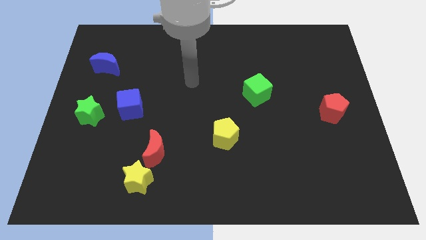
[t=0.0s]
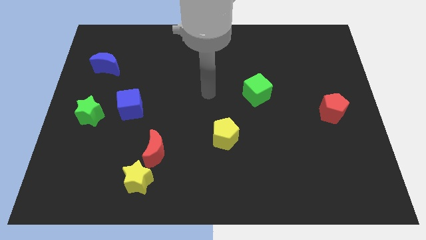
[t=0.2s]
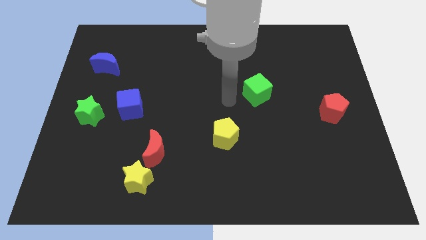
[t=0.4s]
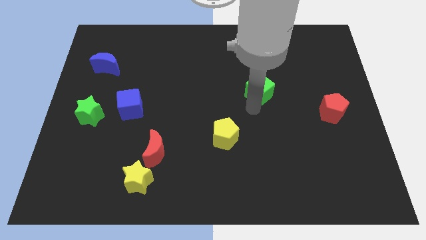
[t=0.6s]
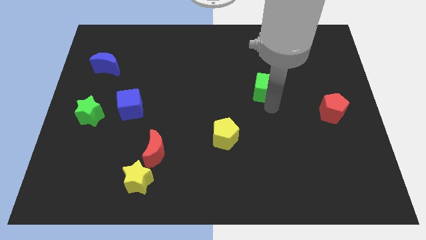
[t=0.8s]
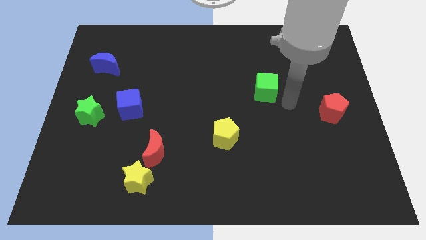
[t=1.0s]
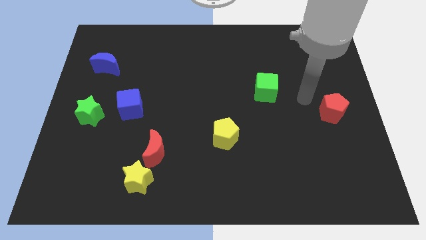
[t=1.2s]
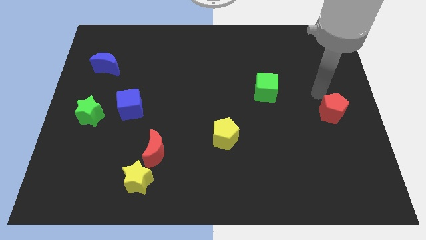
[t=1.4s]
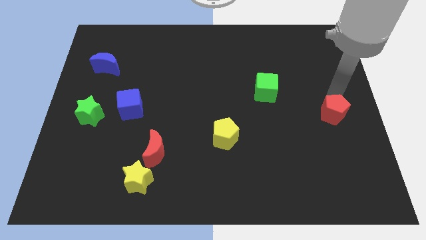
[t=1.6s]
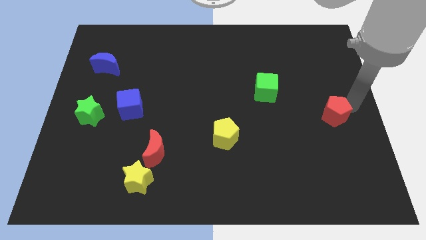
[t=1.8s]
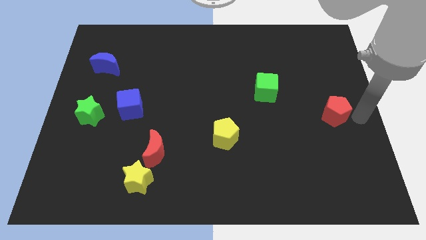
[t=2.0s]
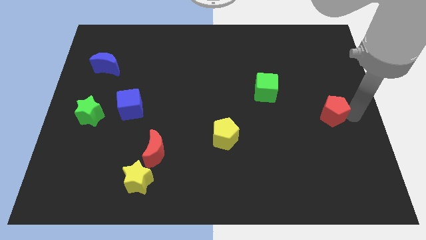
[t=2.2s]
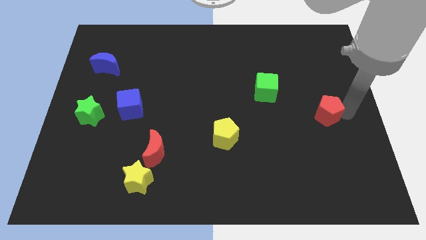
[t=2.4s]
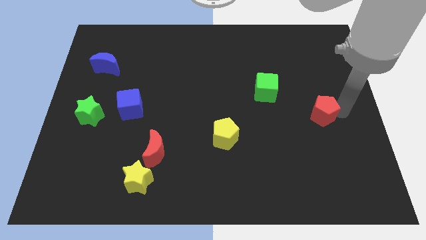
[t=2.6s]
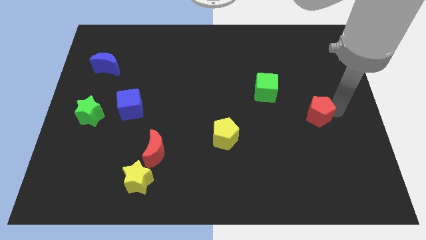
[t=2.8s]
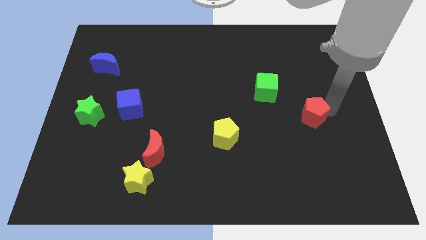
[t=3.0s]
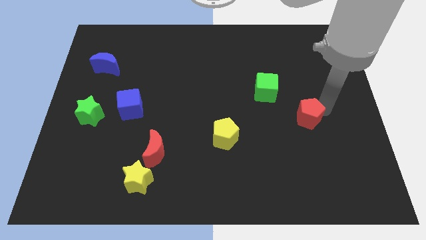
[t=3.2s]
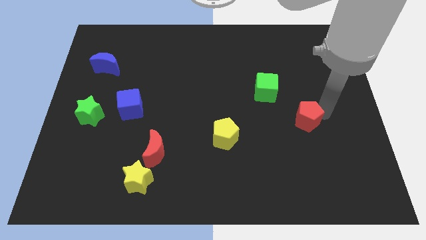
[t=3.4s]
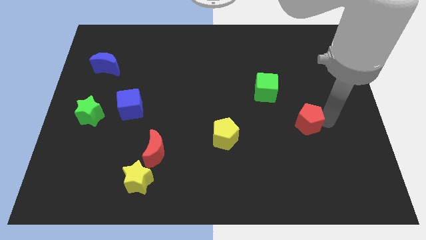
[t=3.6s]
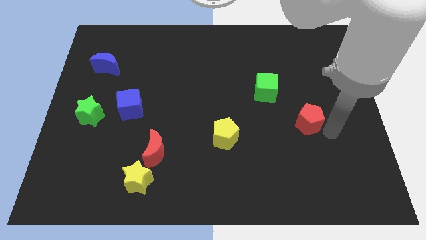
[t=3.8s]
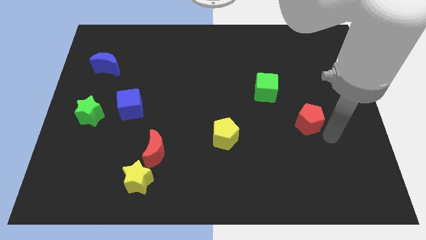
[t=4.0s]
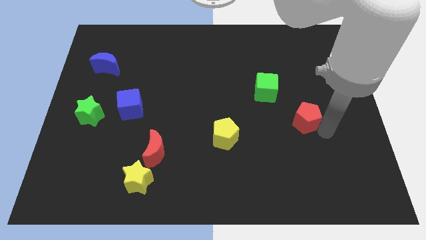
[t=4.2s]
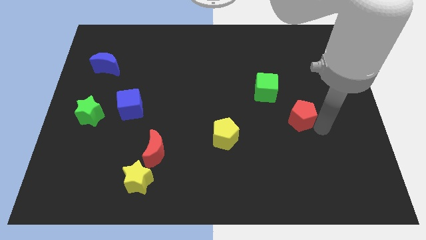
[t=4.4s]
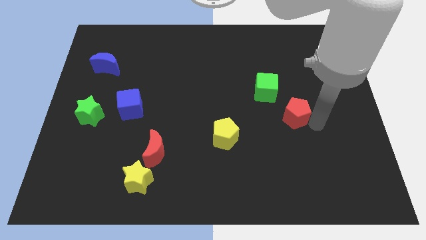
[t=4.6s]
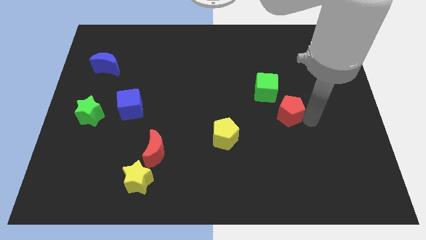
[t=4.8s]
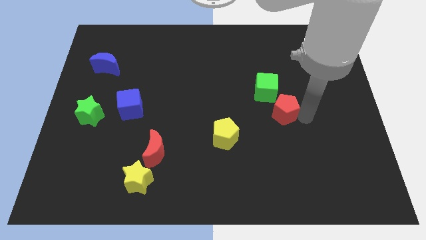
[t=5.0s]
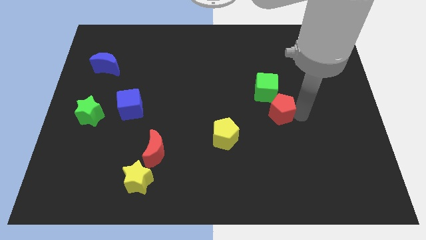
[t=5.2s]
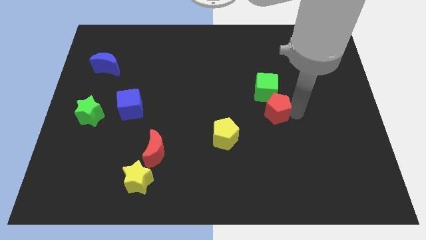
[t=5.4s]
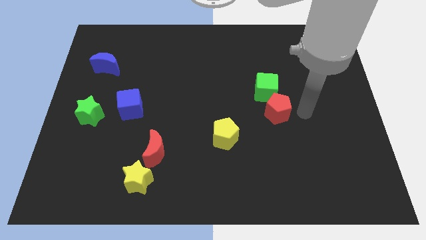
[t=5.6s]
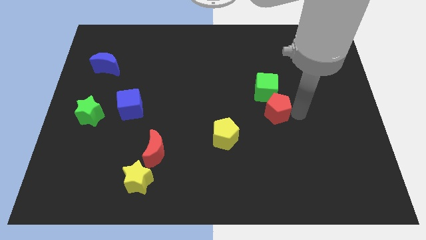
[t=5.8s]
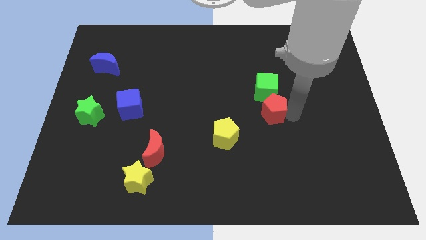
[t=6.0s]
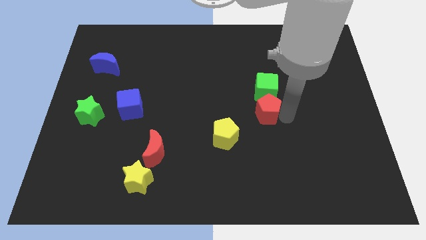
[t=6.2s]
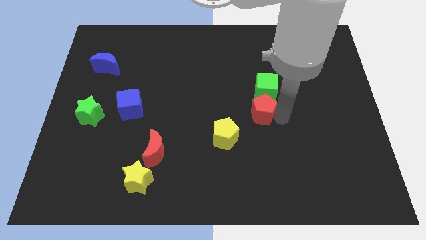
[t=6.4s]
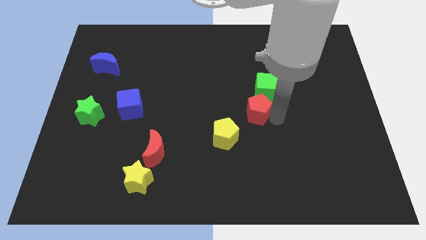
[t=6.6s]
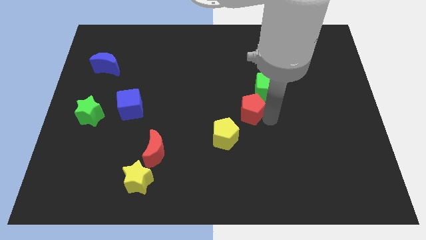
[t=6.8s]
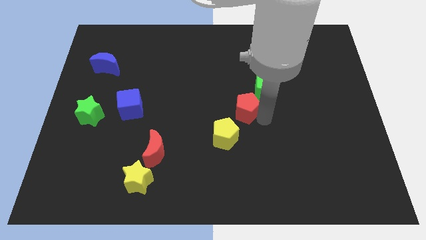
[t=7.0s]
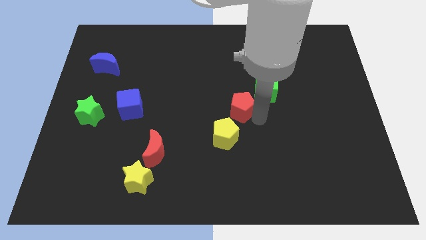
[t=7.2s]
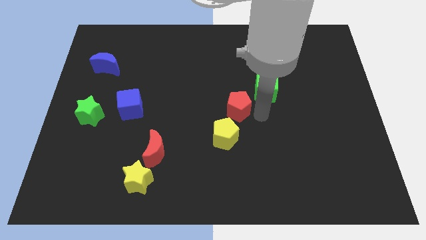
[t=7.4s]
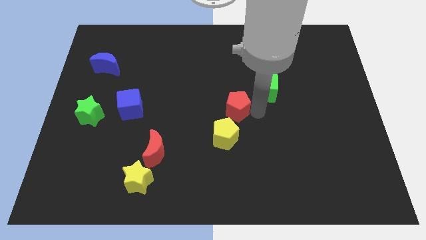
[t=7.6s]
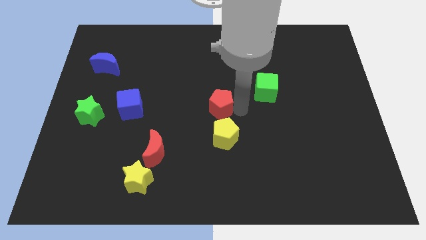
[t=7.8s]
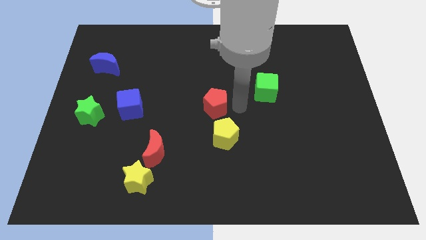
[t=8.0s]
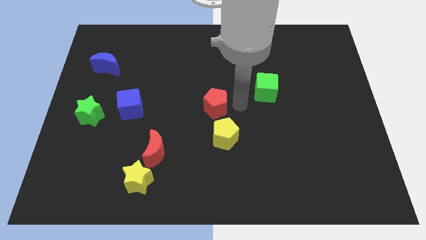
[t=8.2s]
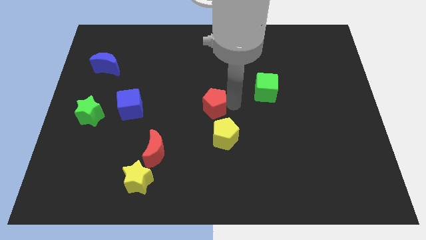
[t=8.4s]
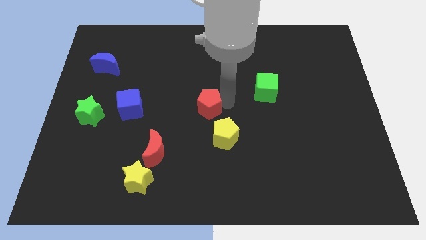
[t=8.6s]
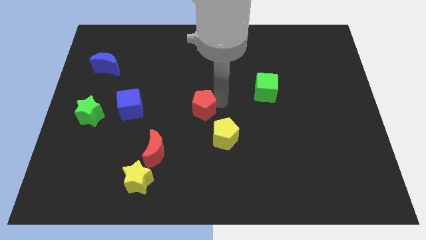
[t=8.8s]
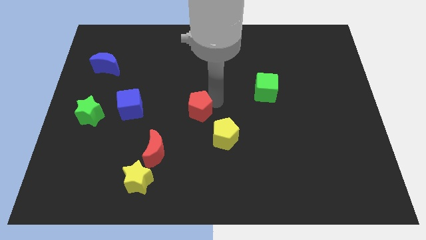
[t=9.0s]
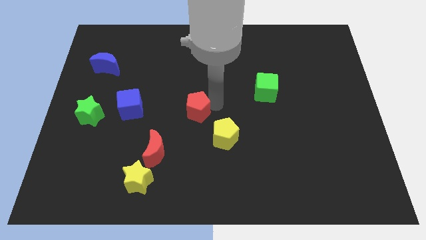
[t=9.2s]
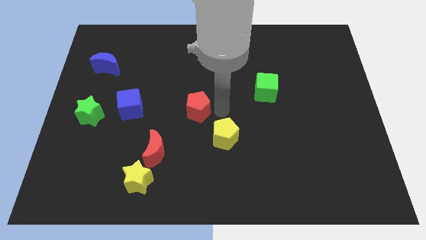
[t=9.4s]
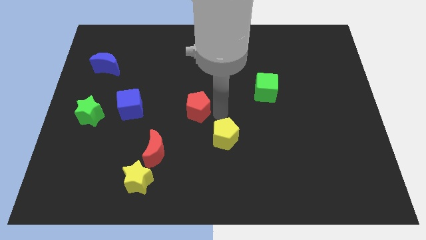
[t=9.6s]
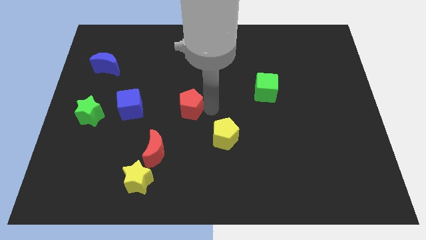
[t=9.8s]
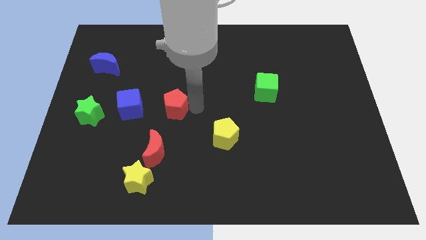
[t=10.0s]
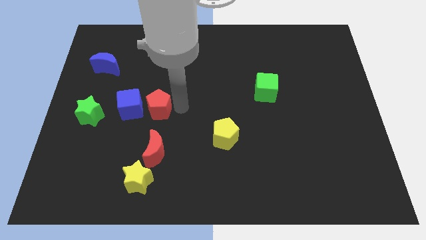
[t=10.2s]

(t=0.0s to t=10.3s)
slide the red pentagon right of the green star

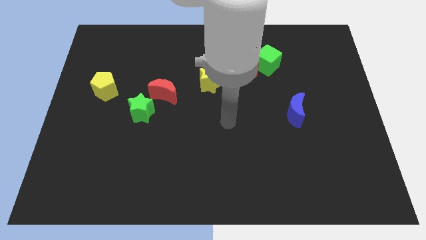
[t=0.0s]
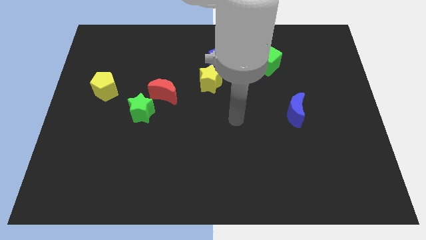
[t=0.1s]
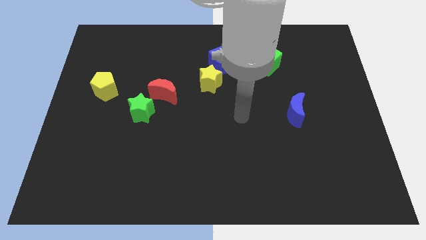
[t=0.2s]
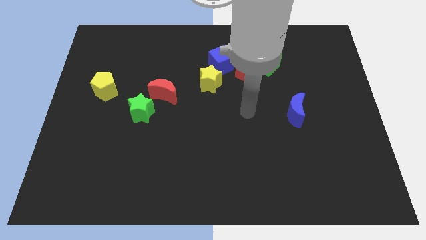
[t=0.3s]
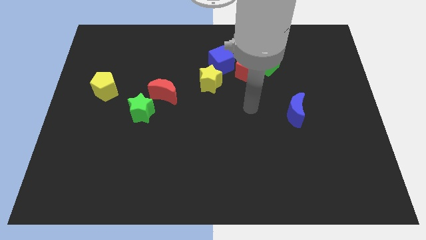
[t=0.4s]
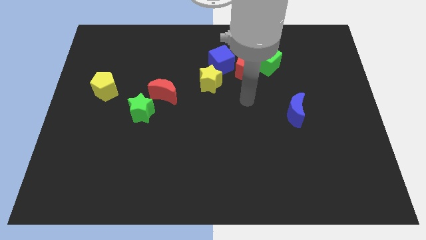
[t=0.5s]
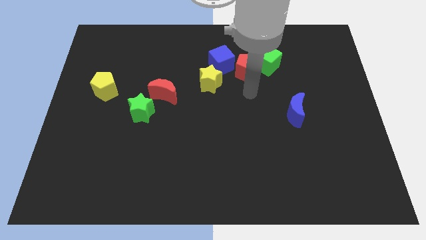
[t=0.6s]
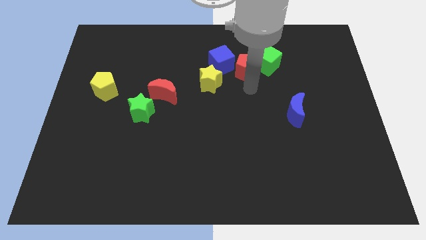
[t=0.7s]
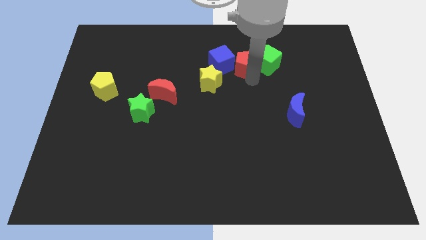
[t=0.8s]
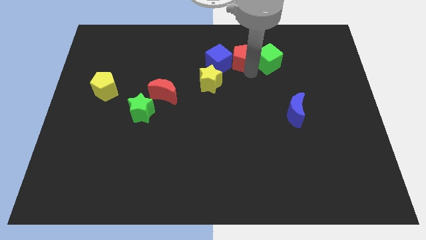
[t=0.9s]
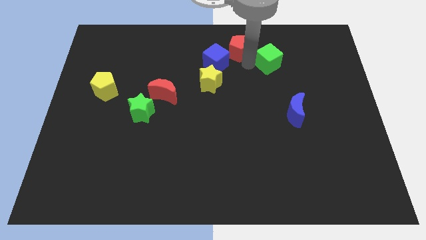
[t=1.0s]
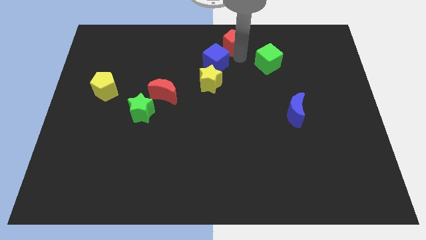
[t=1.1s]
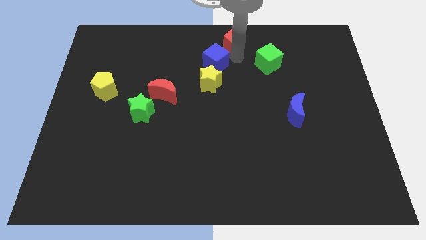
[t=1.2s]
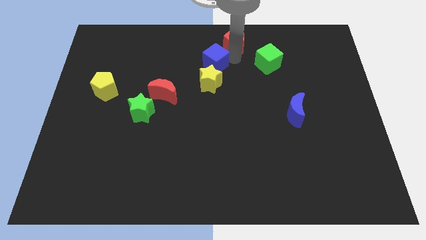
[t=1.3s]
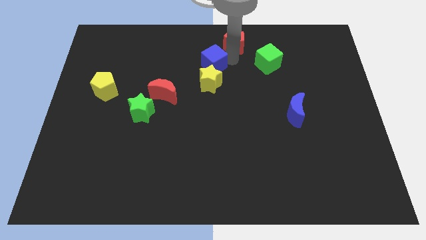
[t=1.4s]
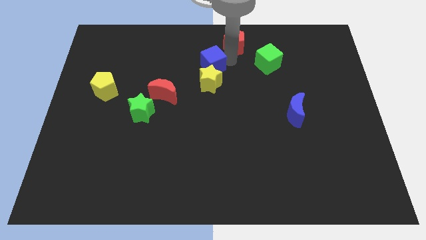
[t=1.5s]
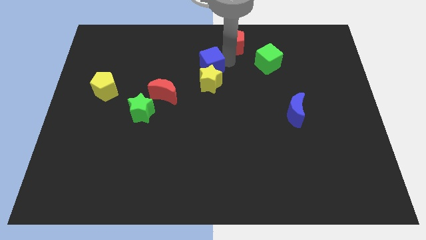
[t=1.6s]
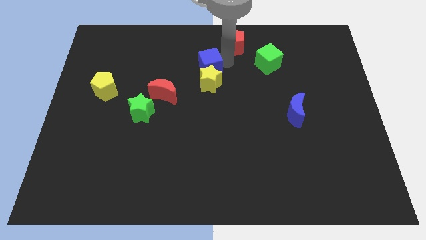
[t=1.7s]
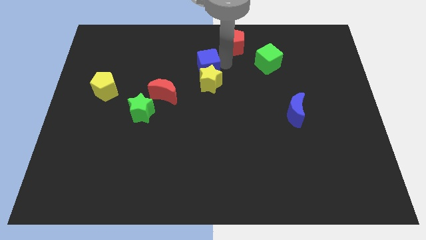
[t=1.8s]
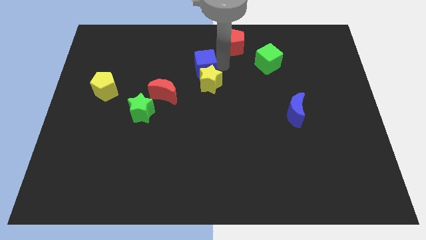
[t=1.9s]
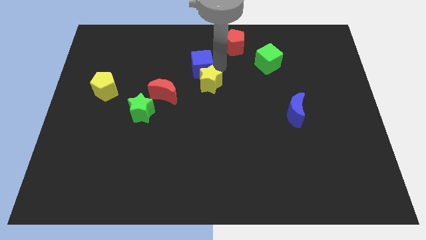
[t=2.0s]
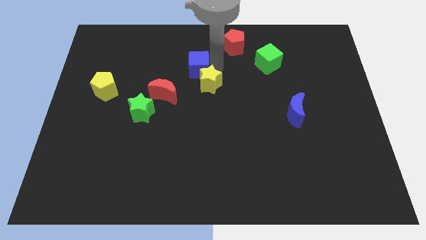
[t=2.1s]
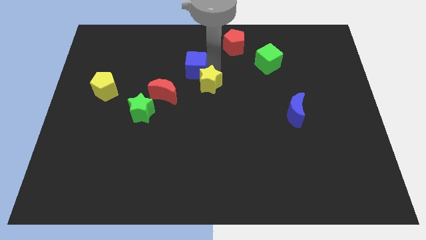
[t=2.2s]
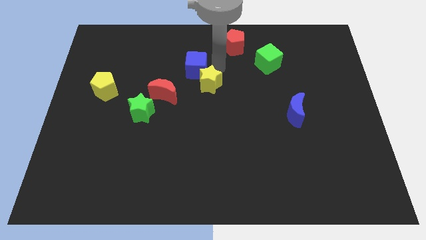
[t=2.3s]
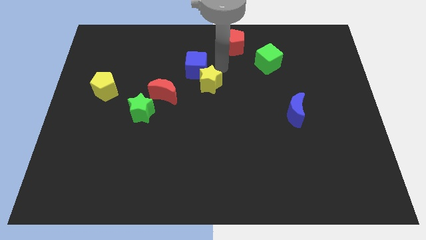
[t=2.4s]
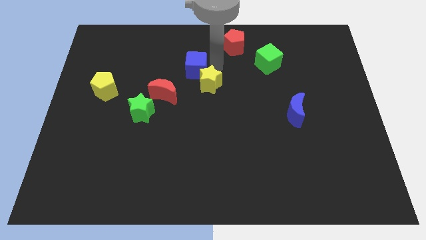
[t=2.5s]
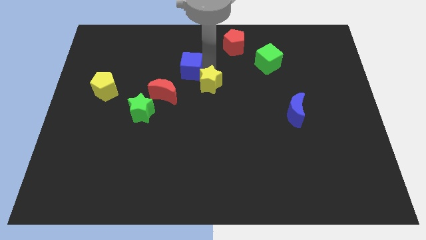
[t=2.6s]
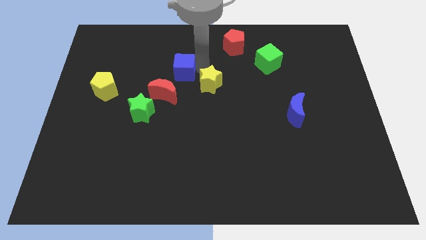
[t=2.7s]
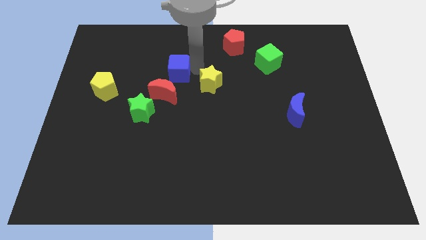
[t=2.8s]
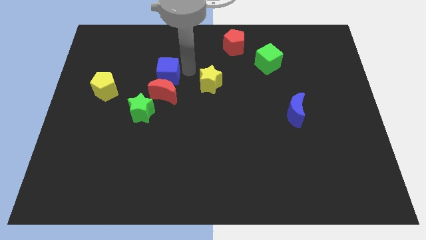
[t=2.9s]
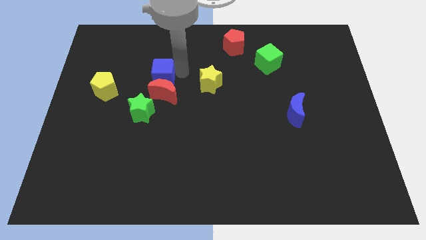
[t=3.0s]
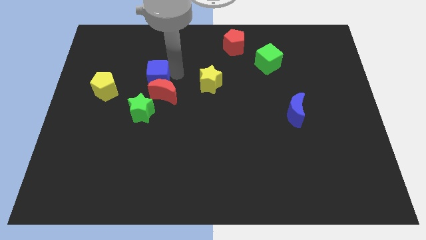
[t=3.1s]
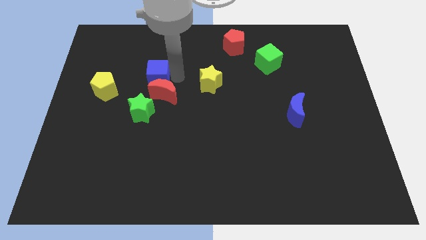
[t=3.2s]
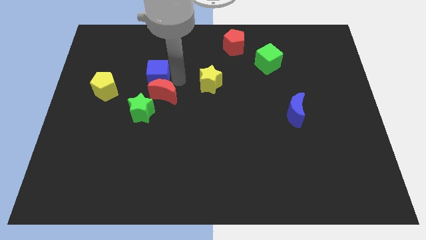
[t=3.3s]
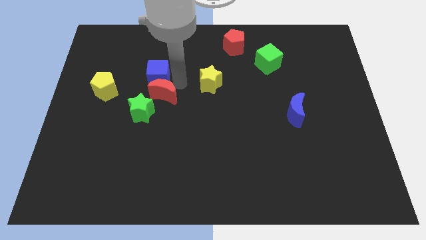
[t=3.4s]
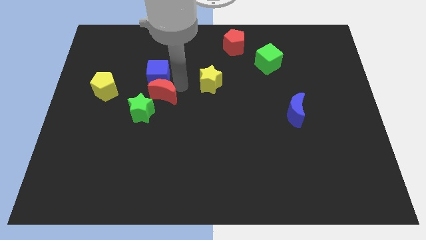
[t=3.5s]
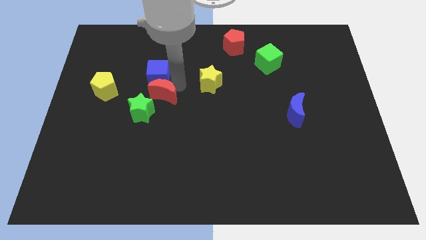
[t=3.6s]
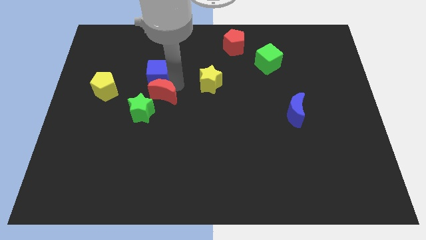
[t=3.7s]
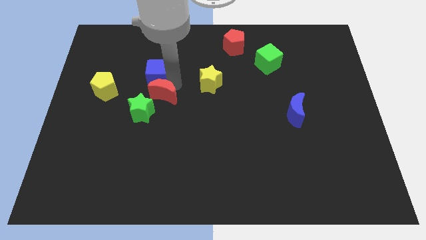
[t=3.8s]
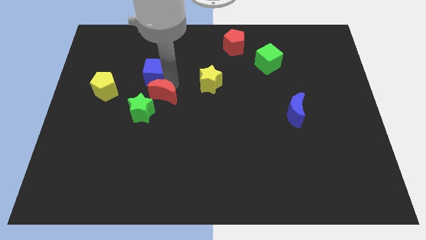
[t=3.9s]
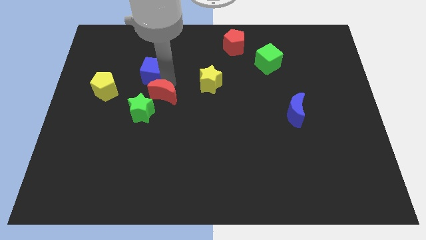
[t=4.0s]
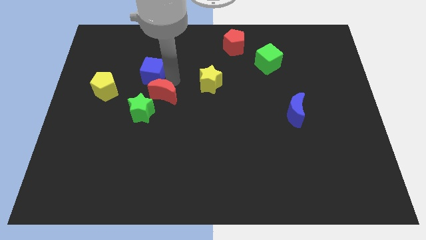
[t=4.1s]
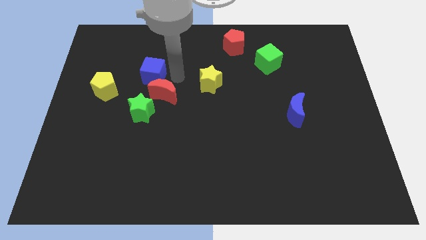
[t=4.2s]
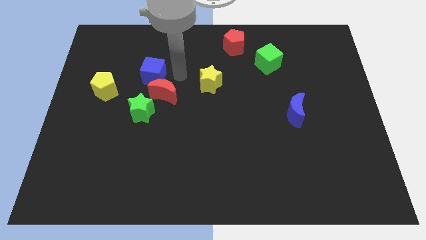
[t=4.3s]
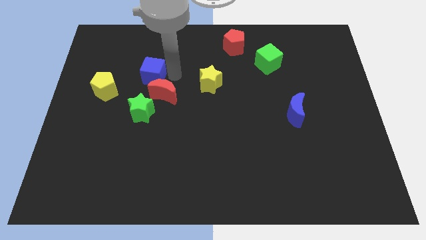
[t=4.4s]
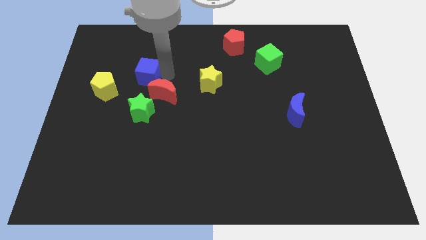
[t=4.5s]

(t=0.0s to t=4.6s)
put the blue cube to the top right side of the yellow pentagon
